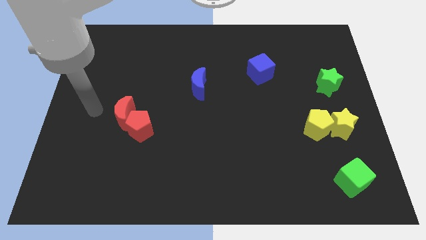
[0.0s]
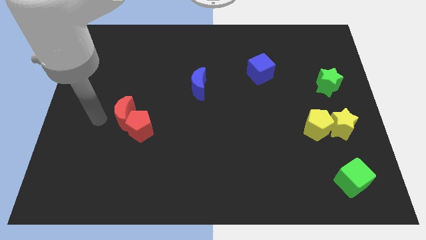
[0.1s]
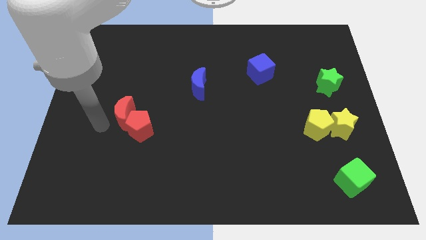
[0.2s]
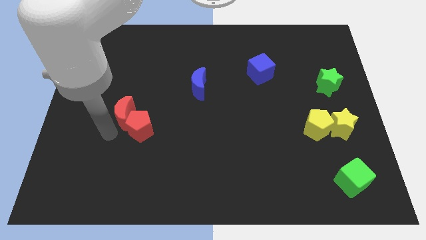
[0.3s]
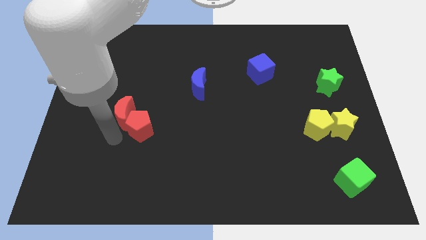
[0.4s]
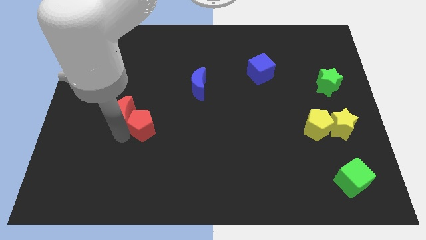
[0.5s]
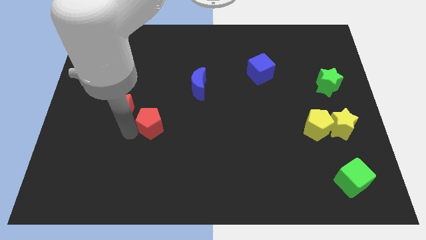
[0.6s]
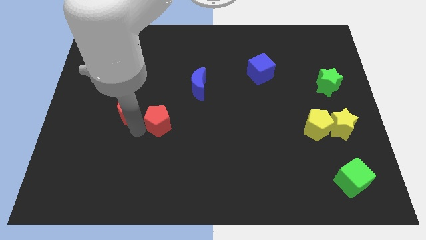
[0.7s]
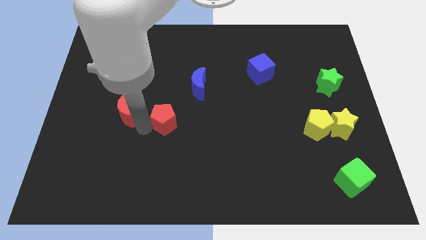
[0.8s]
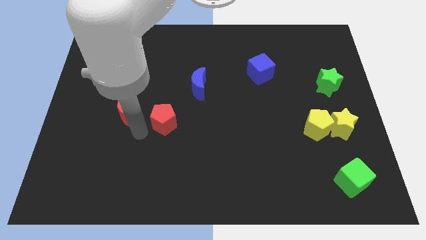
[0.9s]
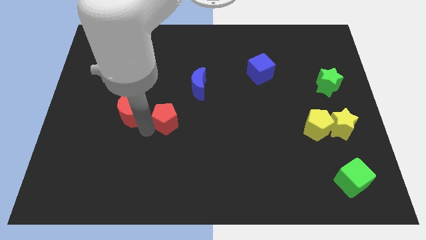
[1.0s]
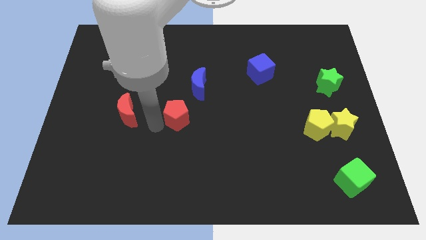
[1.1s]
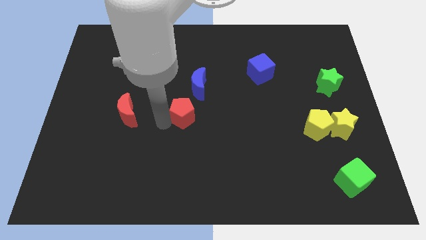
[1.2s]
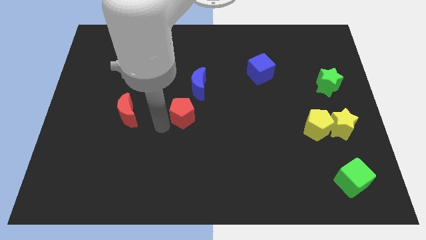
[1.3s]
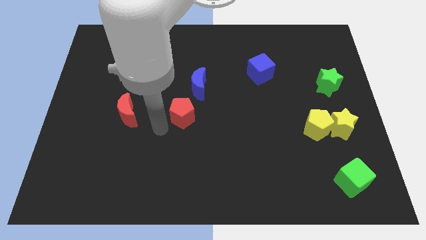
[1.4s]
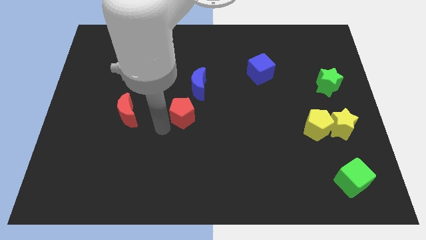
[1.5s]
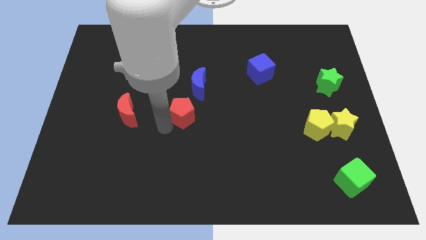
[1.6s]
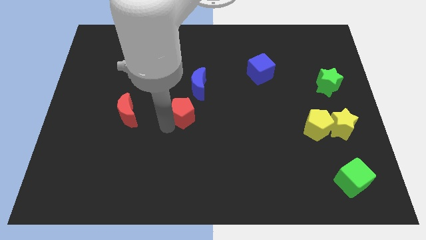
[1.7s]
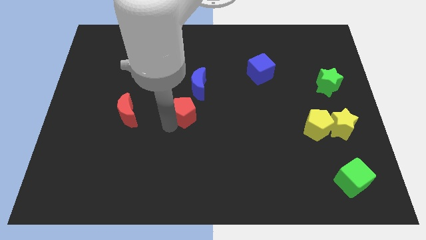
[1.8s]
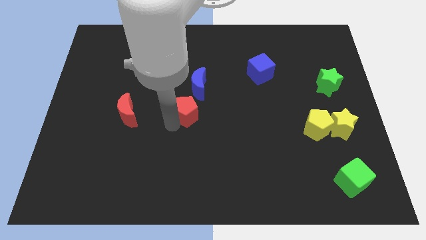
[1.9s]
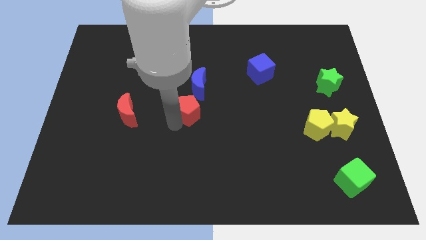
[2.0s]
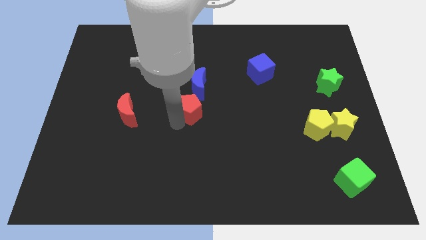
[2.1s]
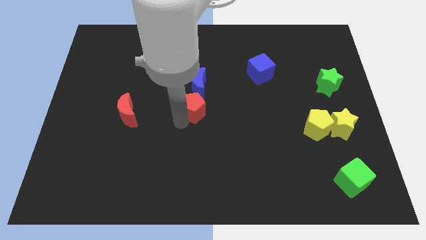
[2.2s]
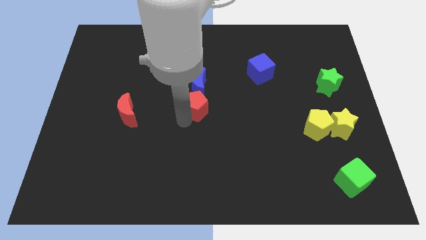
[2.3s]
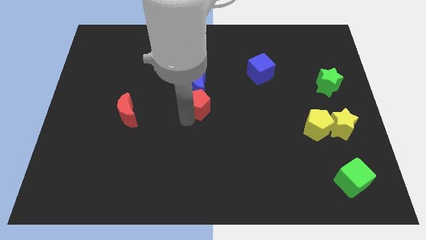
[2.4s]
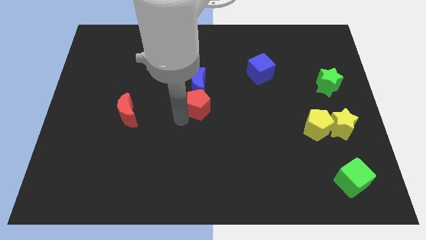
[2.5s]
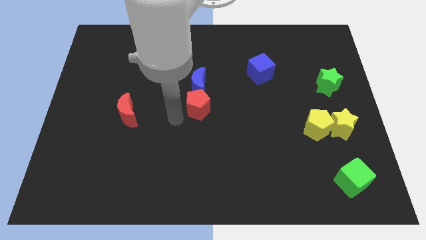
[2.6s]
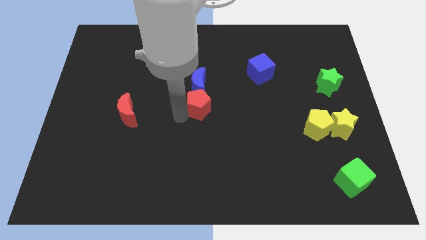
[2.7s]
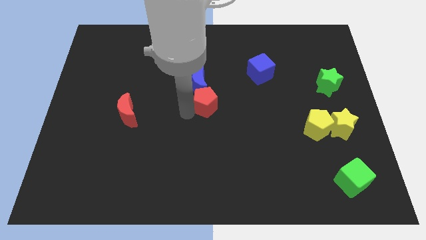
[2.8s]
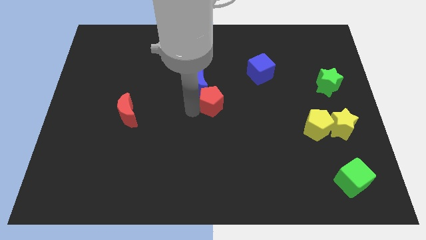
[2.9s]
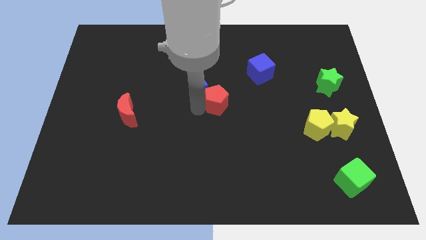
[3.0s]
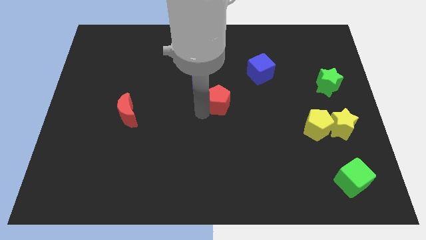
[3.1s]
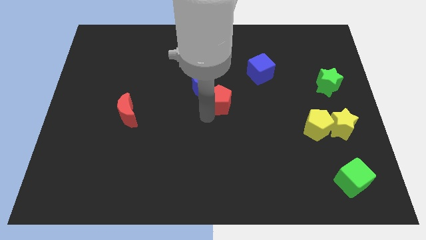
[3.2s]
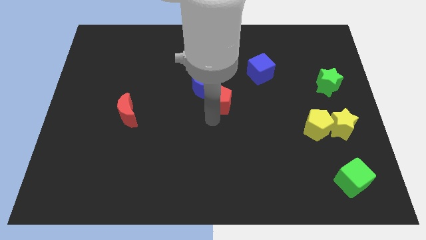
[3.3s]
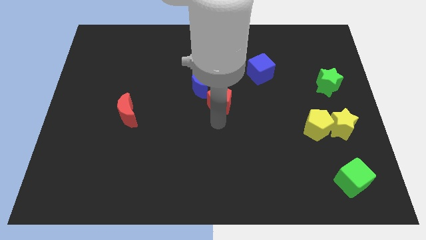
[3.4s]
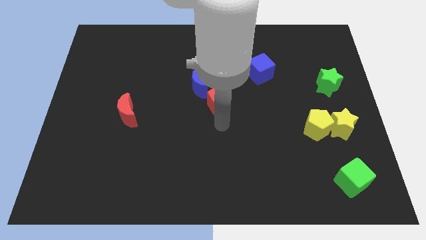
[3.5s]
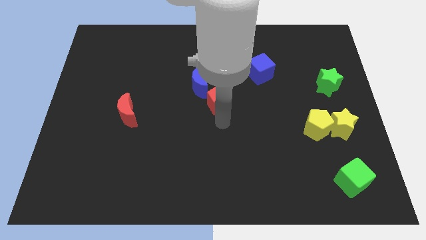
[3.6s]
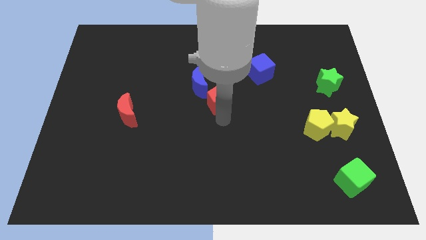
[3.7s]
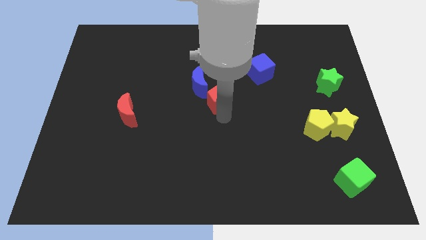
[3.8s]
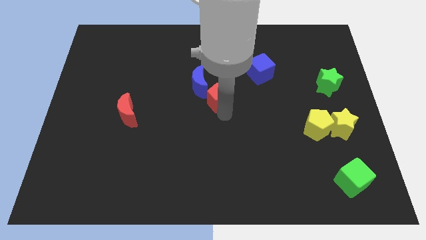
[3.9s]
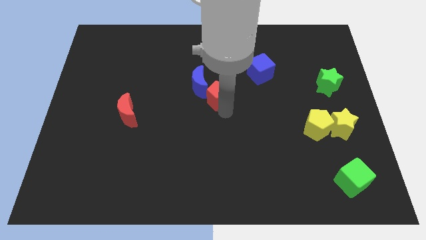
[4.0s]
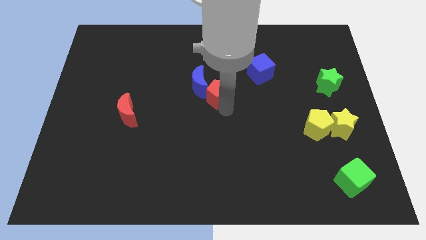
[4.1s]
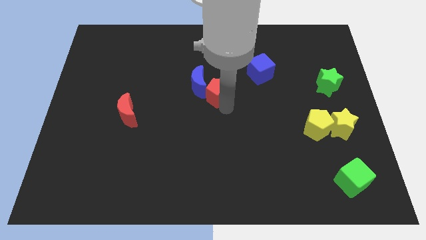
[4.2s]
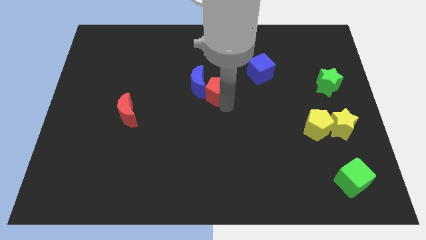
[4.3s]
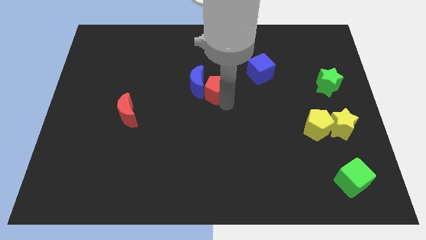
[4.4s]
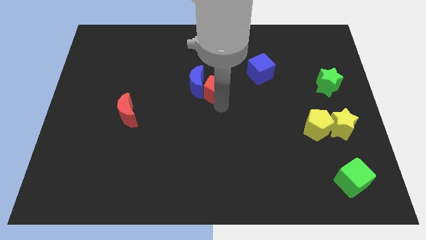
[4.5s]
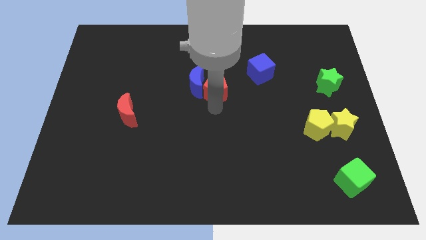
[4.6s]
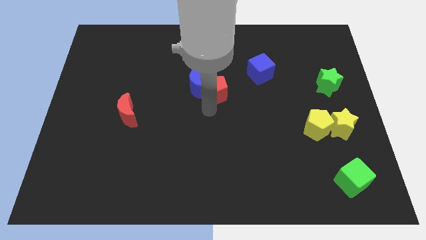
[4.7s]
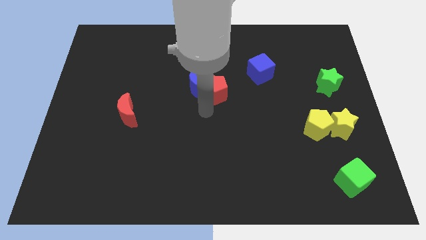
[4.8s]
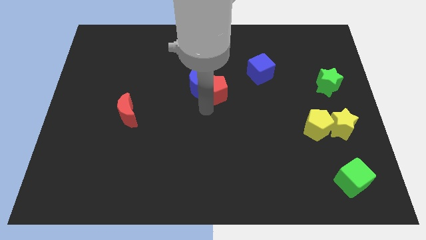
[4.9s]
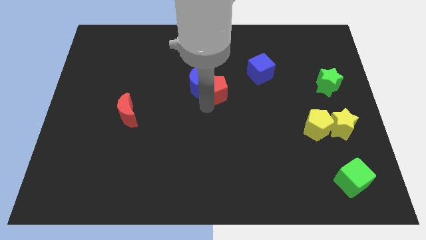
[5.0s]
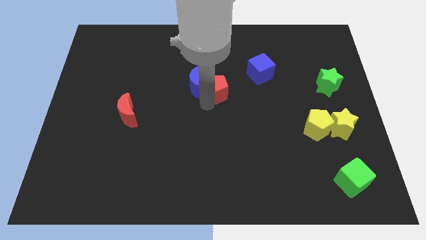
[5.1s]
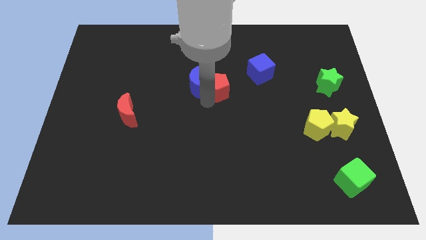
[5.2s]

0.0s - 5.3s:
slide the red pentagon upwards and then right

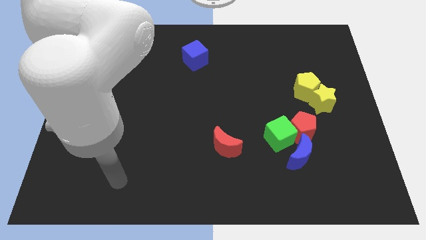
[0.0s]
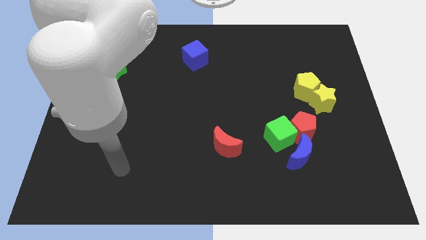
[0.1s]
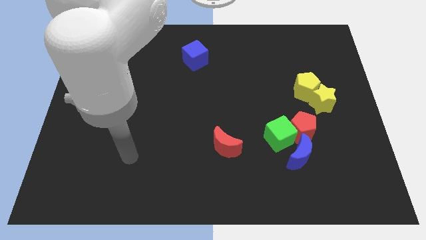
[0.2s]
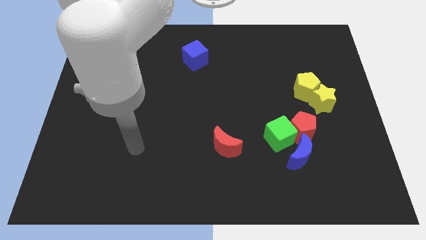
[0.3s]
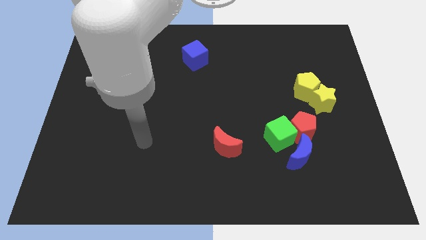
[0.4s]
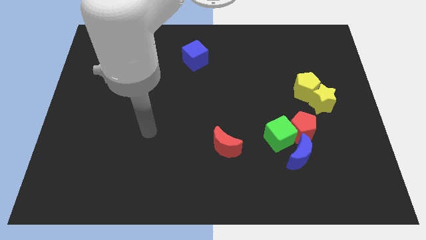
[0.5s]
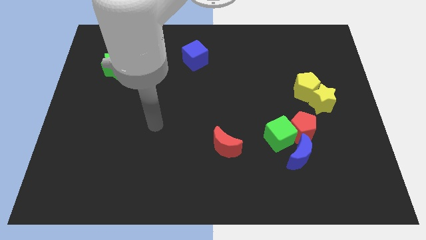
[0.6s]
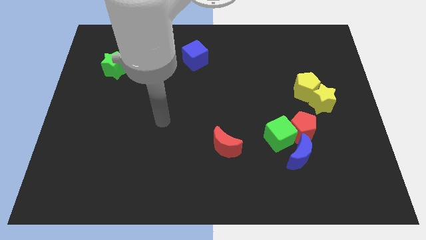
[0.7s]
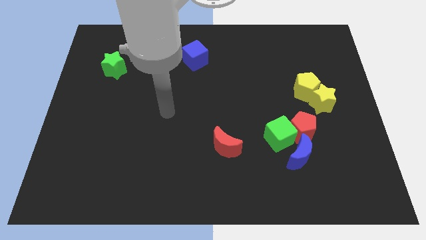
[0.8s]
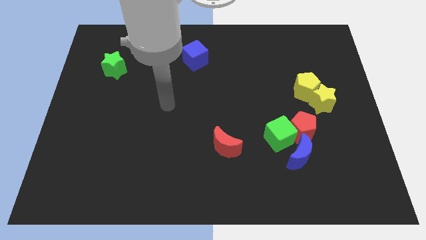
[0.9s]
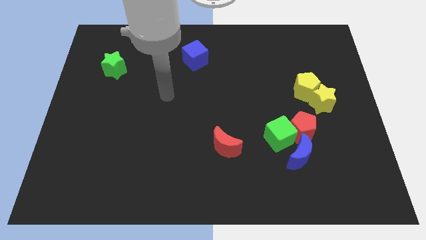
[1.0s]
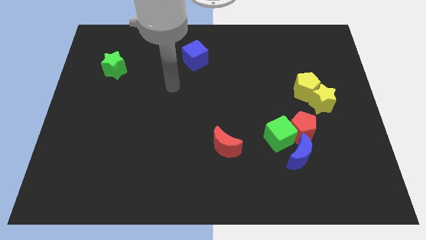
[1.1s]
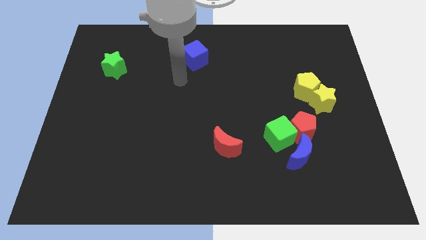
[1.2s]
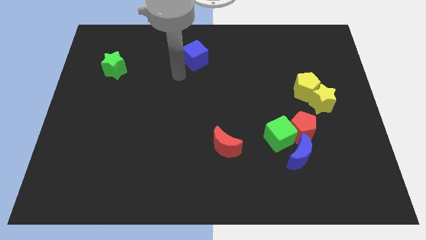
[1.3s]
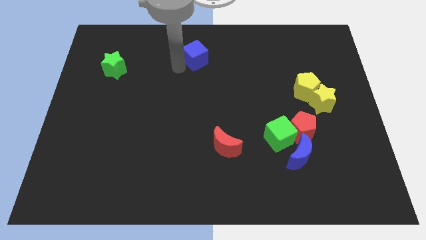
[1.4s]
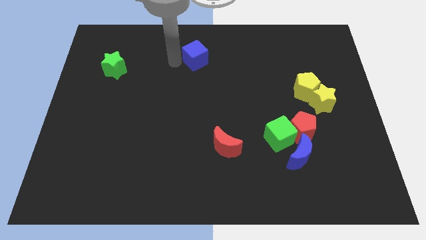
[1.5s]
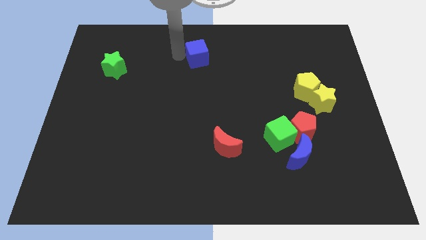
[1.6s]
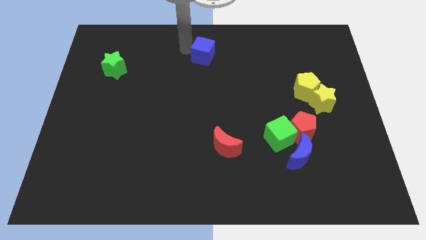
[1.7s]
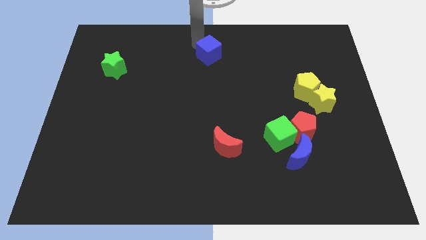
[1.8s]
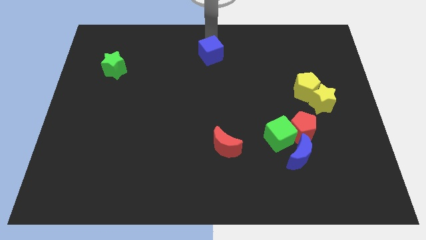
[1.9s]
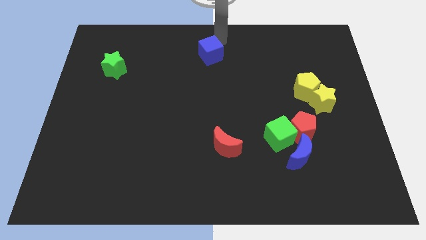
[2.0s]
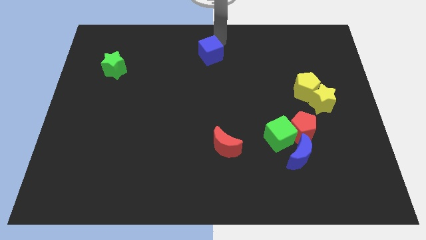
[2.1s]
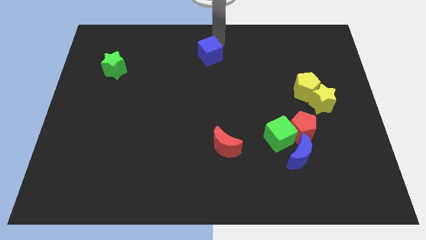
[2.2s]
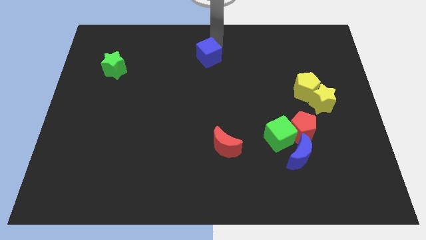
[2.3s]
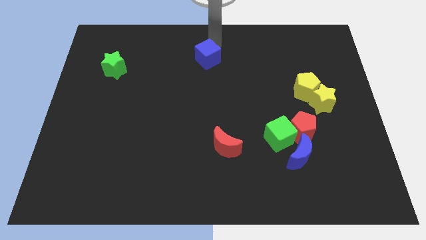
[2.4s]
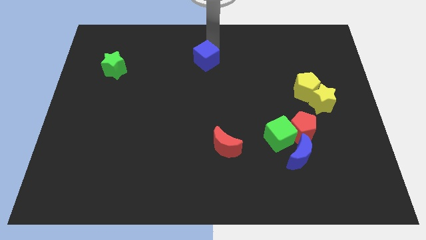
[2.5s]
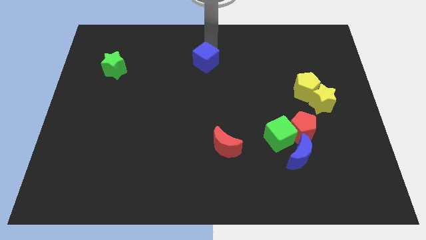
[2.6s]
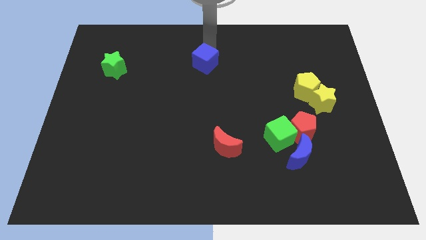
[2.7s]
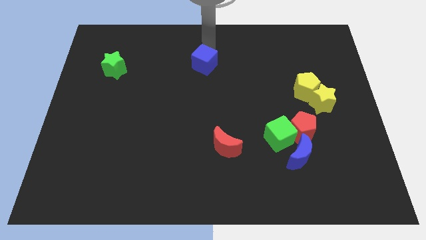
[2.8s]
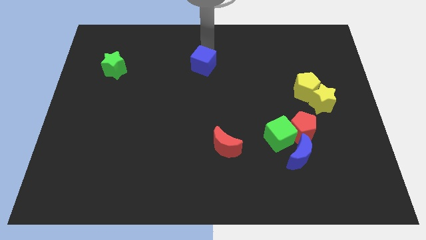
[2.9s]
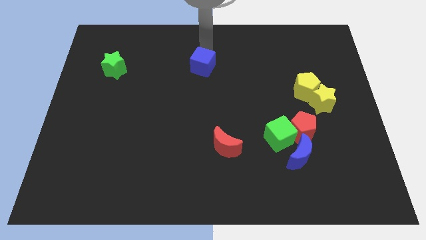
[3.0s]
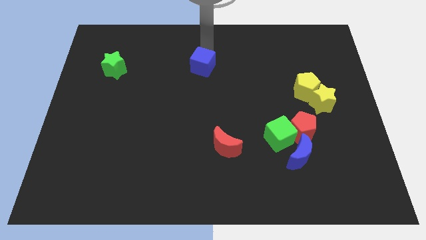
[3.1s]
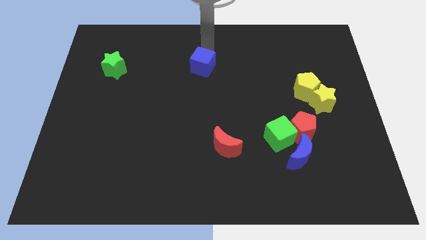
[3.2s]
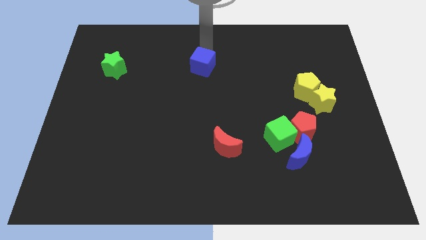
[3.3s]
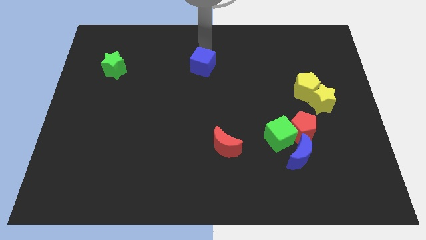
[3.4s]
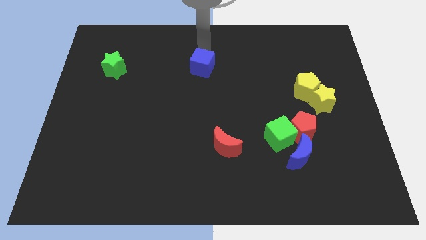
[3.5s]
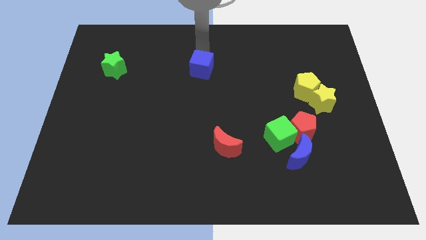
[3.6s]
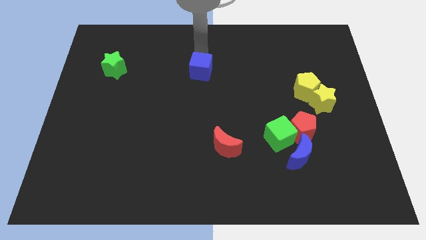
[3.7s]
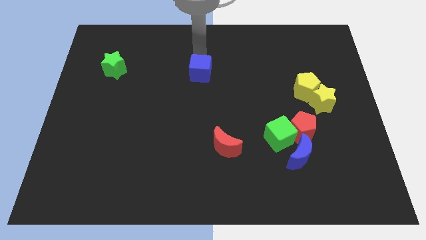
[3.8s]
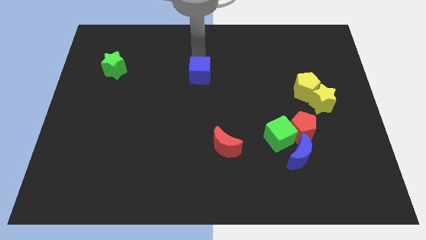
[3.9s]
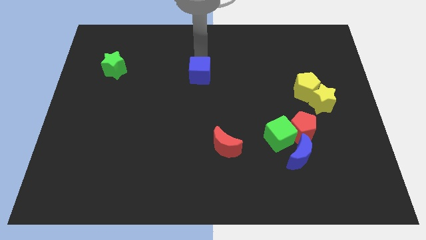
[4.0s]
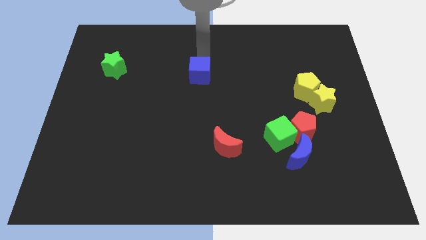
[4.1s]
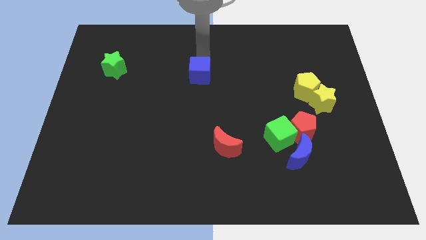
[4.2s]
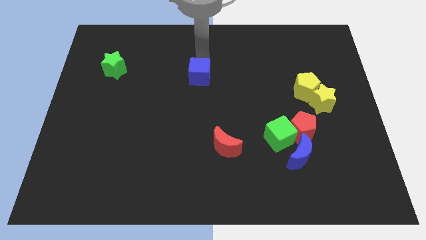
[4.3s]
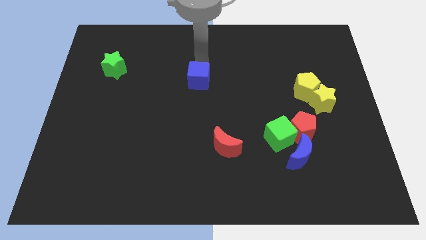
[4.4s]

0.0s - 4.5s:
slide the blue cube downwards a bit
